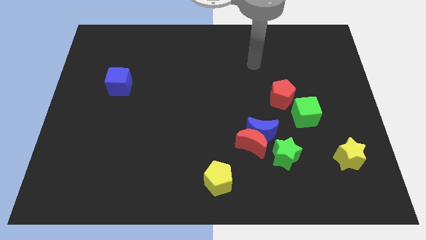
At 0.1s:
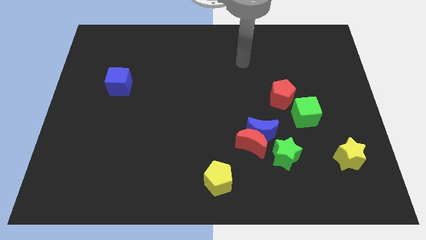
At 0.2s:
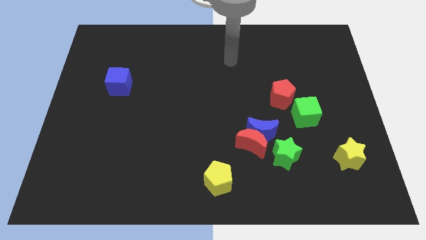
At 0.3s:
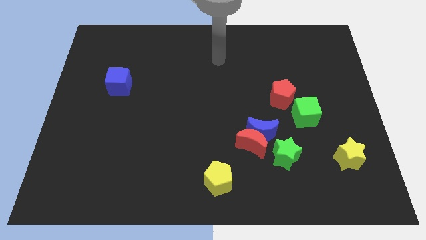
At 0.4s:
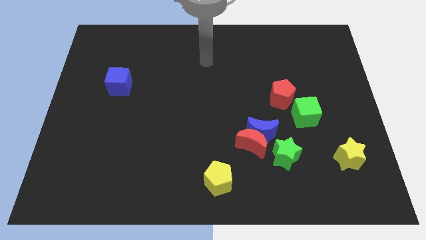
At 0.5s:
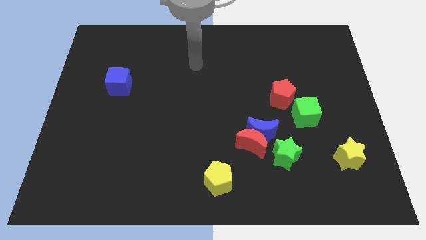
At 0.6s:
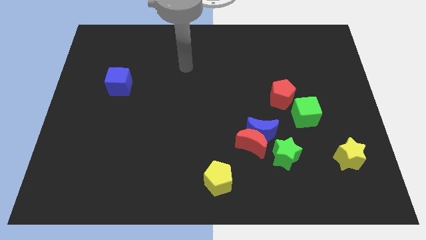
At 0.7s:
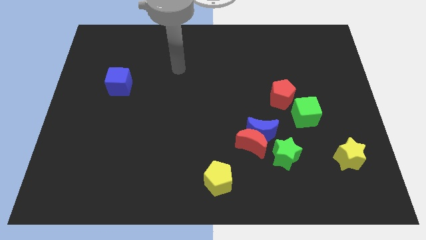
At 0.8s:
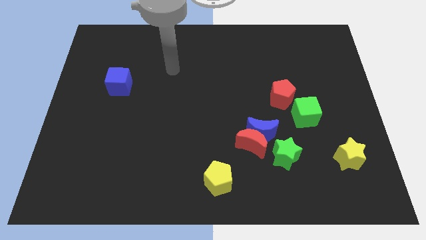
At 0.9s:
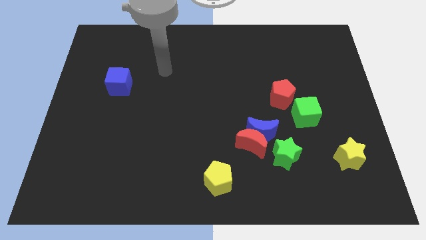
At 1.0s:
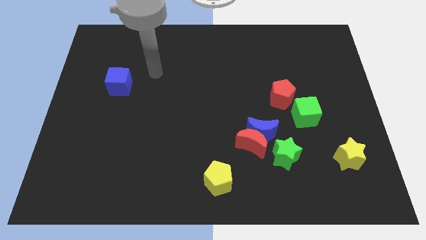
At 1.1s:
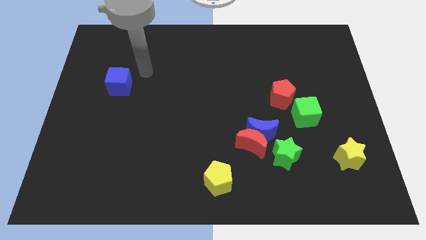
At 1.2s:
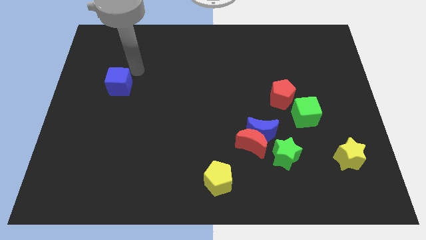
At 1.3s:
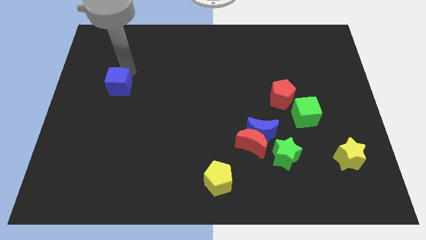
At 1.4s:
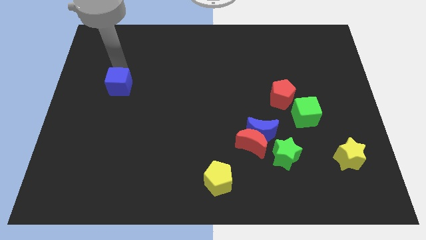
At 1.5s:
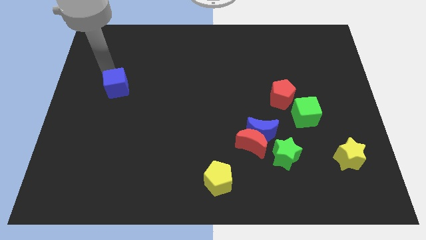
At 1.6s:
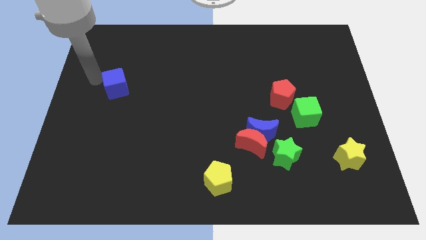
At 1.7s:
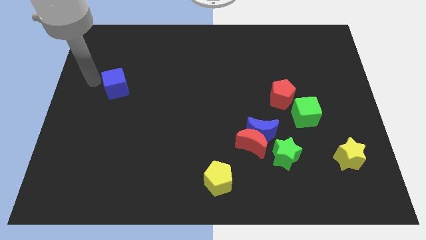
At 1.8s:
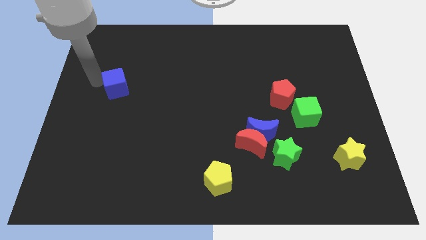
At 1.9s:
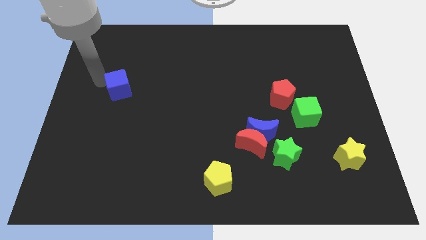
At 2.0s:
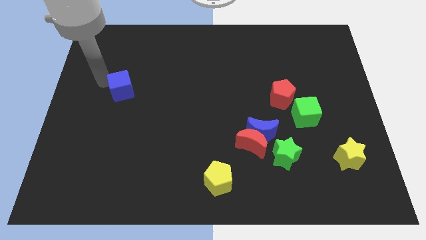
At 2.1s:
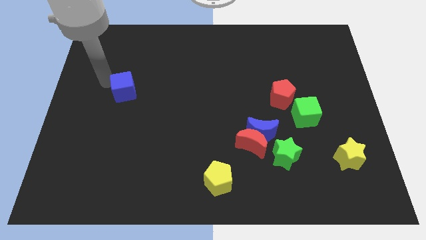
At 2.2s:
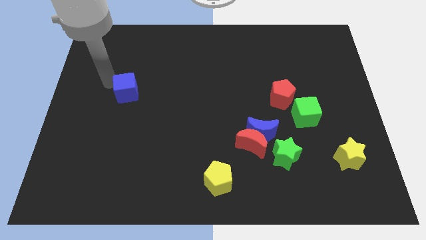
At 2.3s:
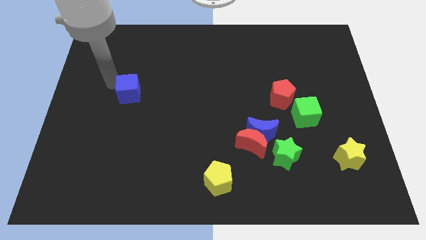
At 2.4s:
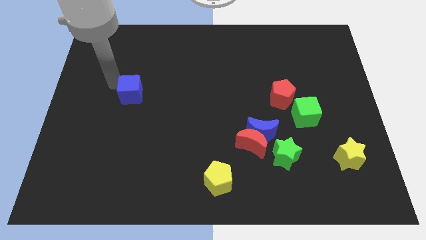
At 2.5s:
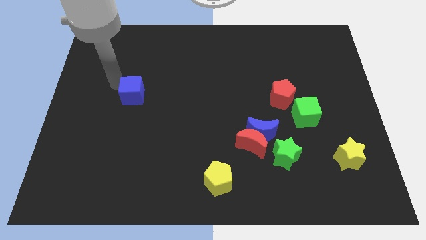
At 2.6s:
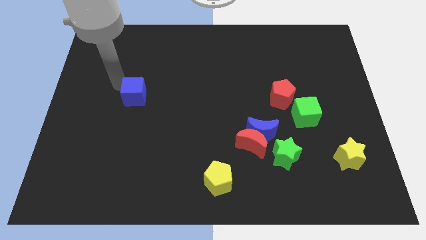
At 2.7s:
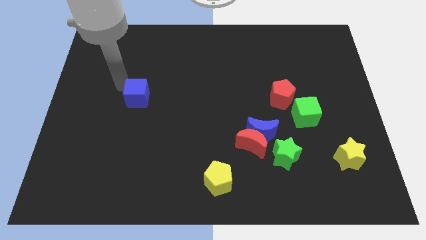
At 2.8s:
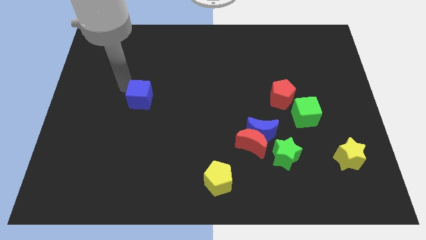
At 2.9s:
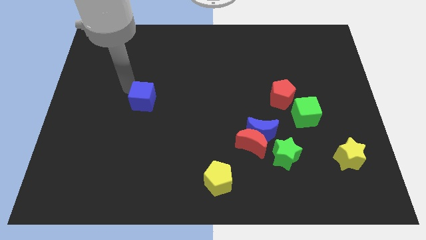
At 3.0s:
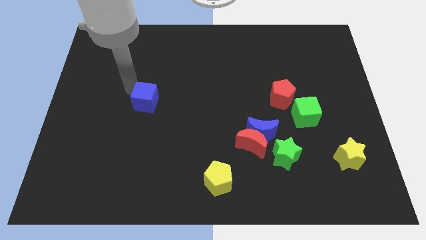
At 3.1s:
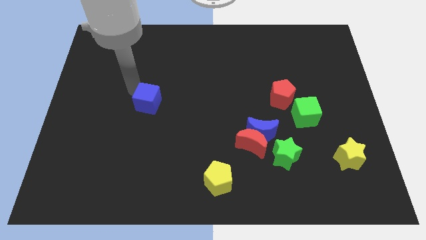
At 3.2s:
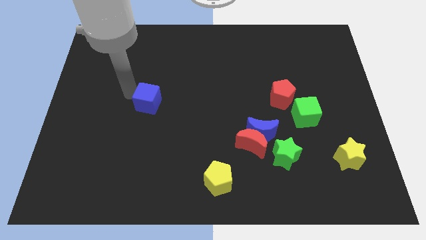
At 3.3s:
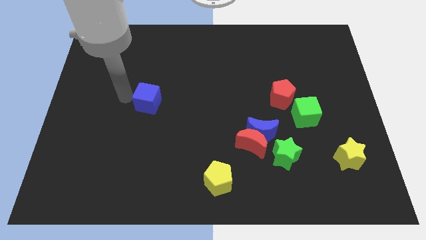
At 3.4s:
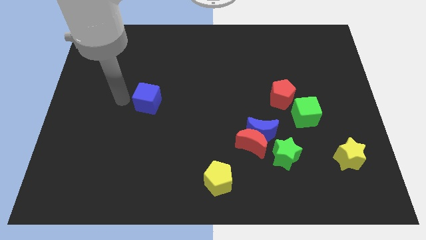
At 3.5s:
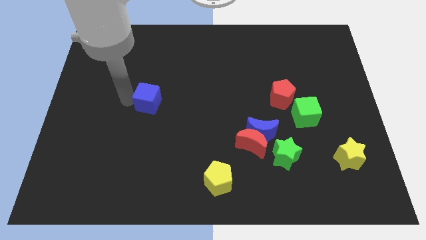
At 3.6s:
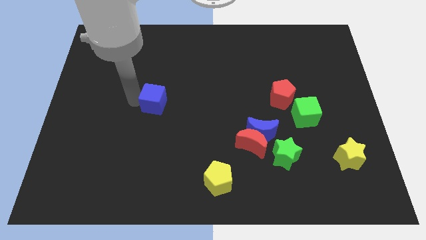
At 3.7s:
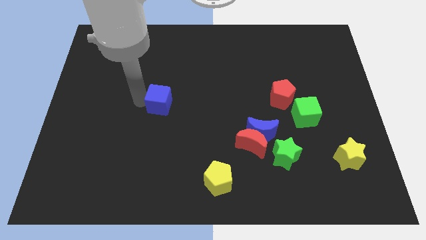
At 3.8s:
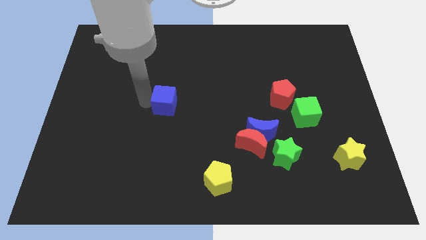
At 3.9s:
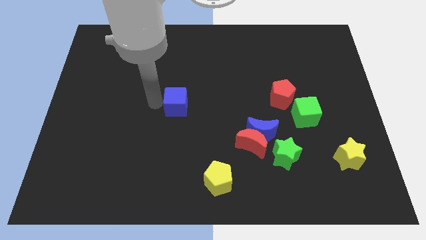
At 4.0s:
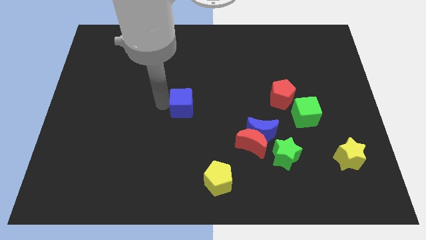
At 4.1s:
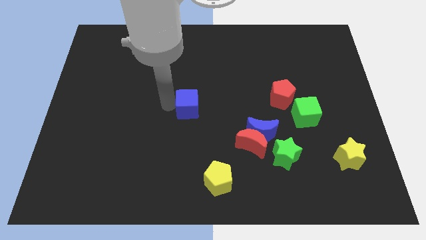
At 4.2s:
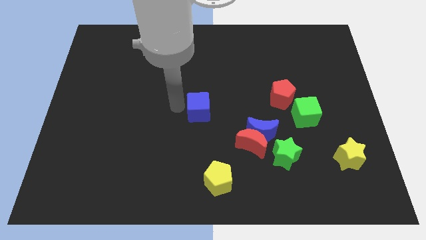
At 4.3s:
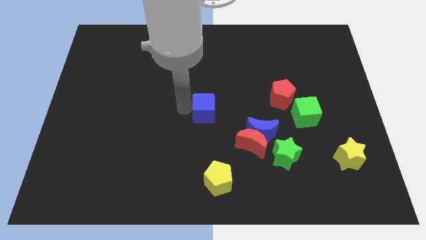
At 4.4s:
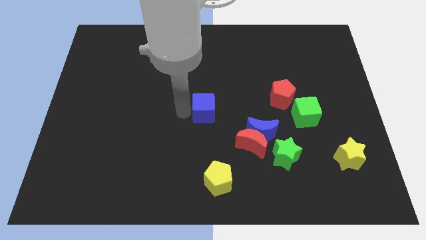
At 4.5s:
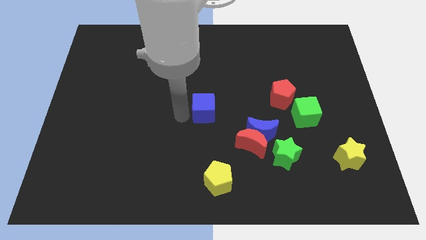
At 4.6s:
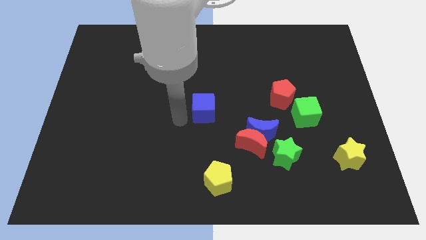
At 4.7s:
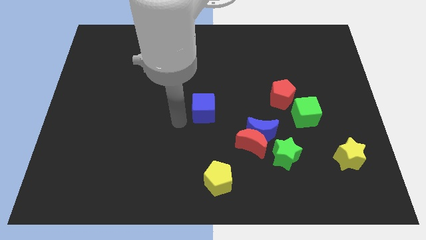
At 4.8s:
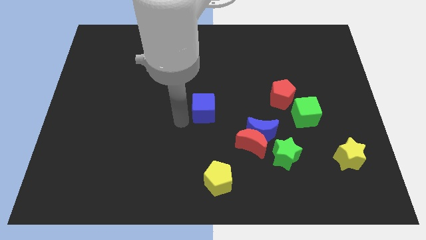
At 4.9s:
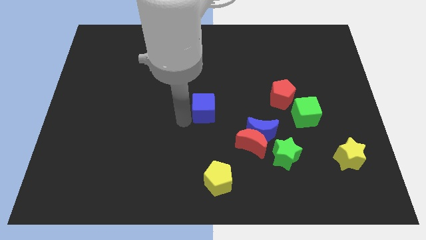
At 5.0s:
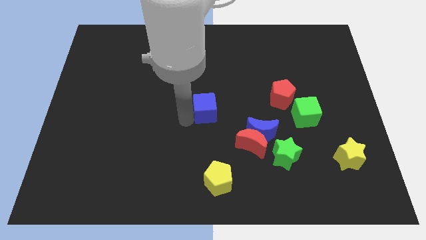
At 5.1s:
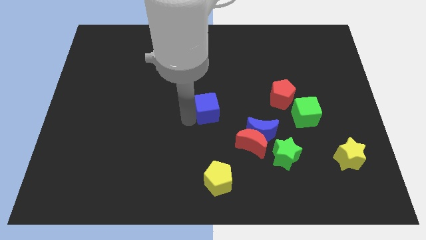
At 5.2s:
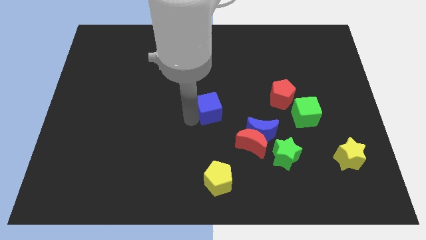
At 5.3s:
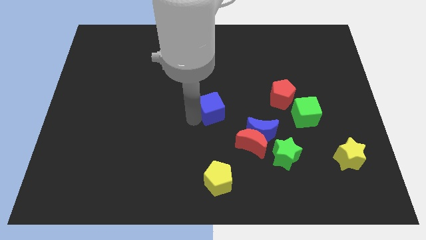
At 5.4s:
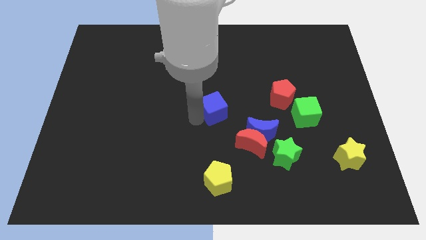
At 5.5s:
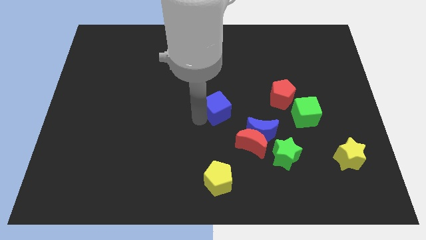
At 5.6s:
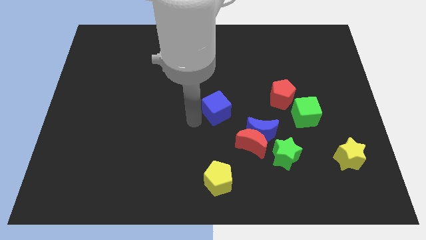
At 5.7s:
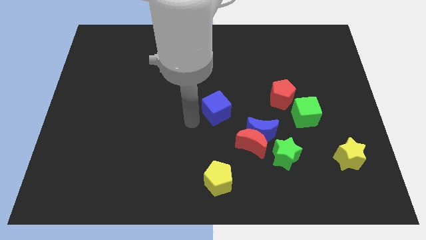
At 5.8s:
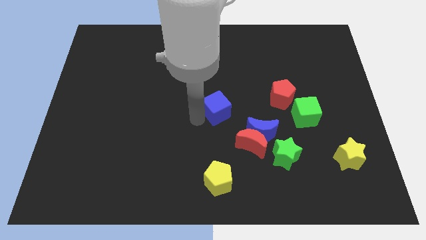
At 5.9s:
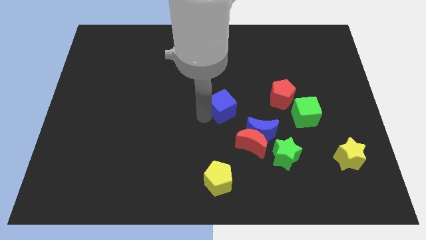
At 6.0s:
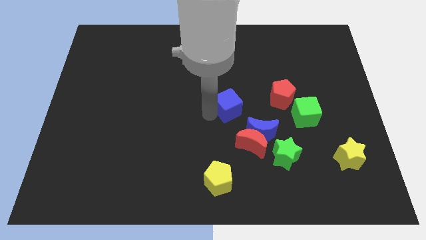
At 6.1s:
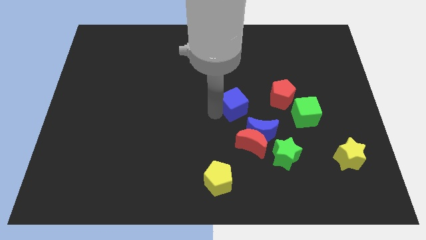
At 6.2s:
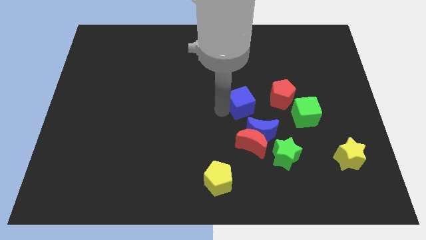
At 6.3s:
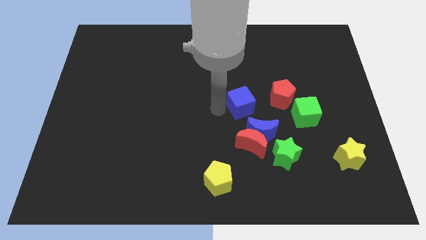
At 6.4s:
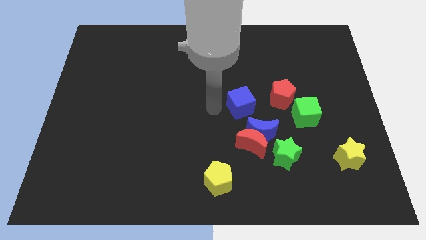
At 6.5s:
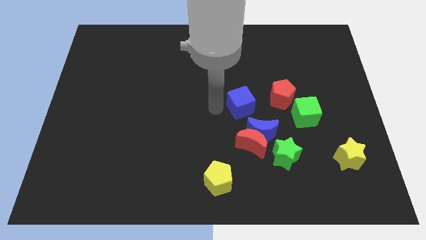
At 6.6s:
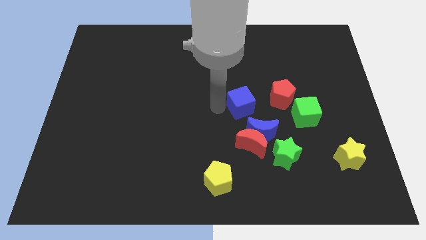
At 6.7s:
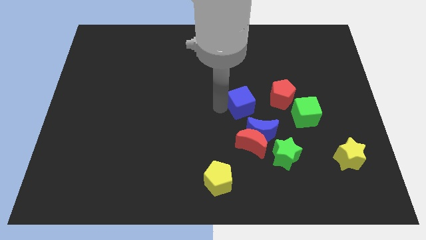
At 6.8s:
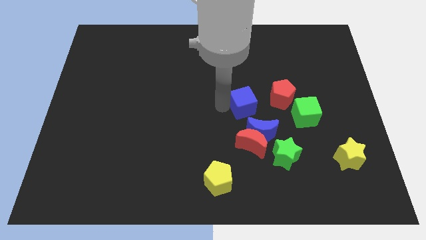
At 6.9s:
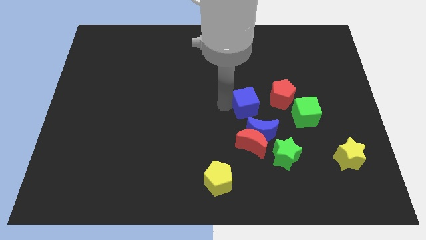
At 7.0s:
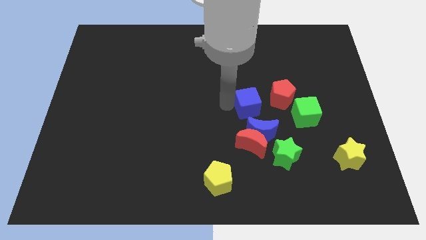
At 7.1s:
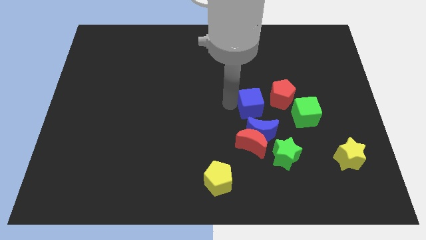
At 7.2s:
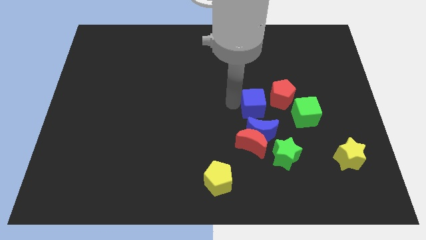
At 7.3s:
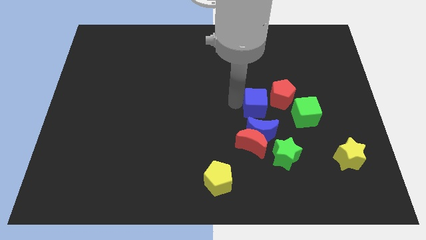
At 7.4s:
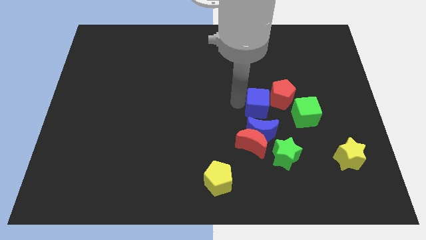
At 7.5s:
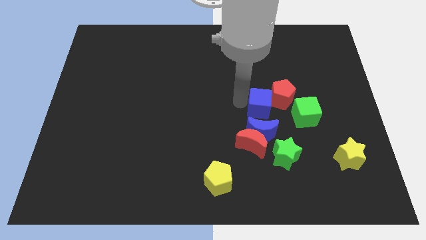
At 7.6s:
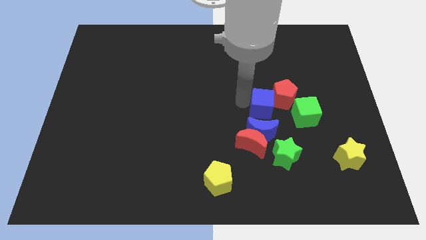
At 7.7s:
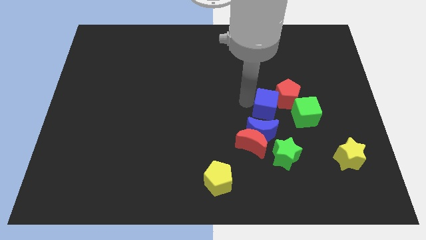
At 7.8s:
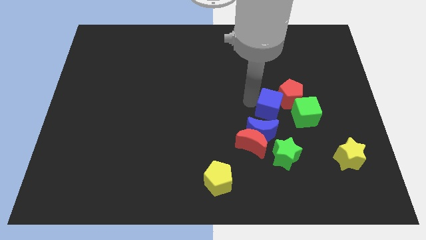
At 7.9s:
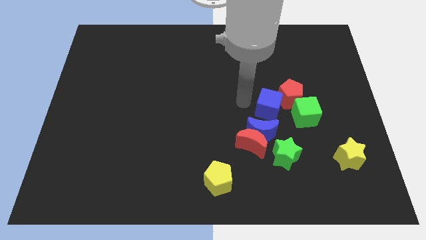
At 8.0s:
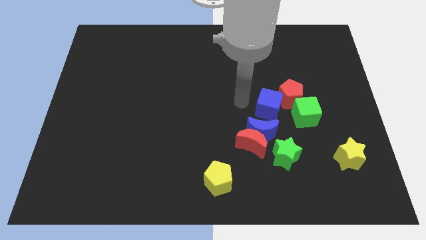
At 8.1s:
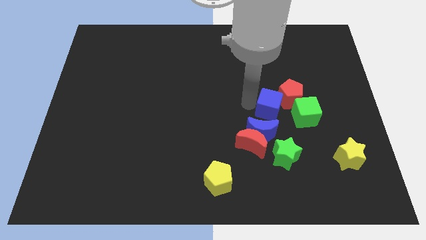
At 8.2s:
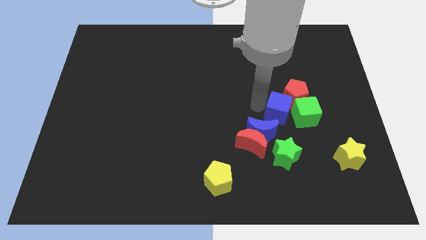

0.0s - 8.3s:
push the blue cube next to the green cube
